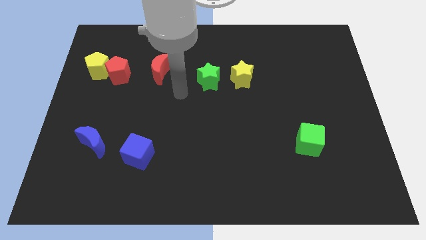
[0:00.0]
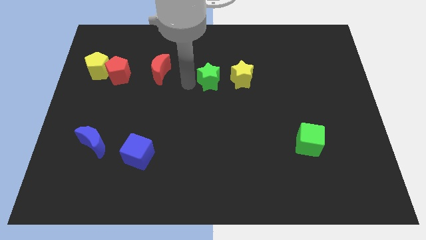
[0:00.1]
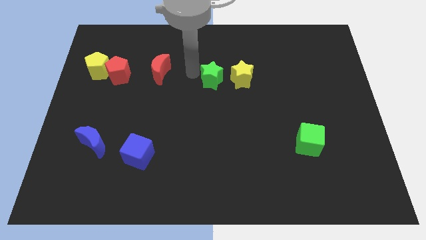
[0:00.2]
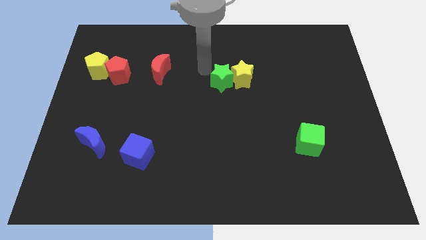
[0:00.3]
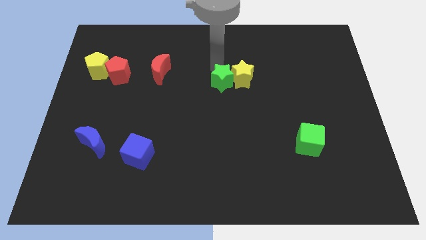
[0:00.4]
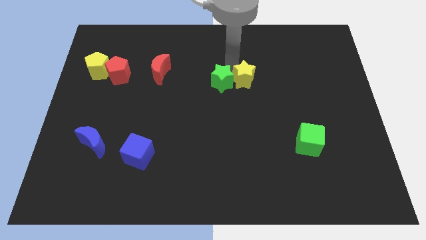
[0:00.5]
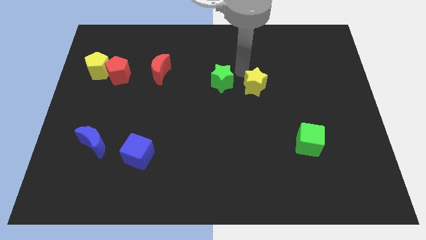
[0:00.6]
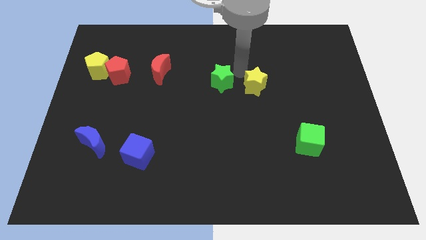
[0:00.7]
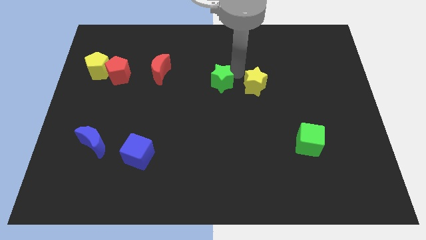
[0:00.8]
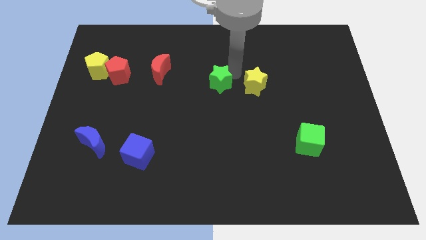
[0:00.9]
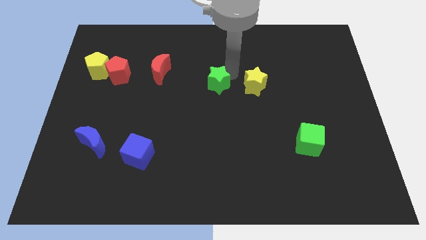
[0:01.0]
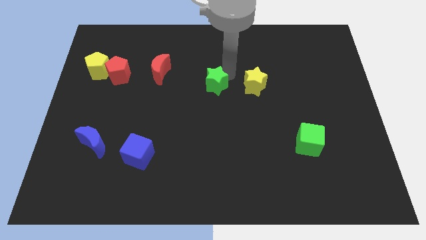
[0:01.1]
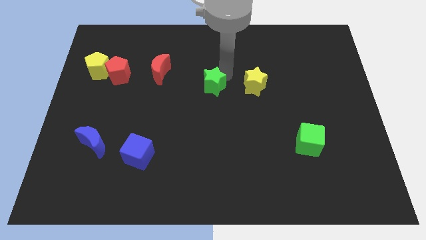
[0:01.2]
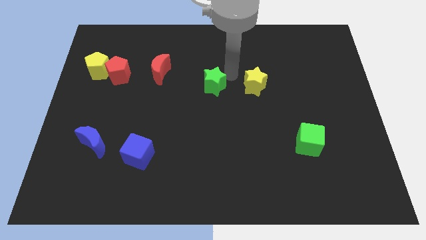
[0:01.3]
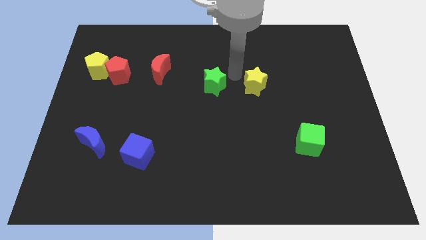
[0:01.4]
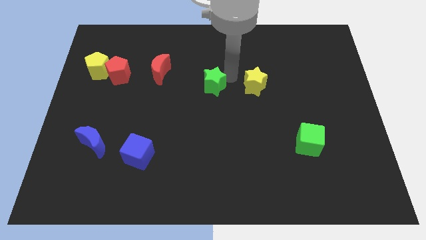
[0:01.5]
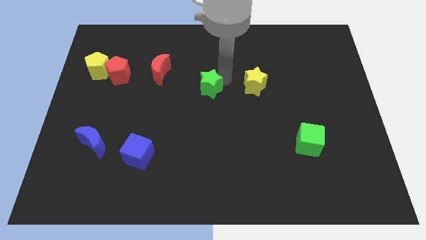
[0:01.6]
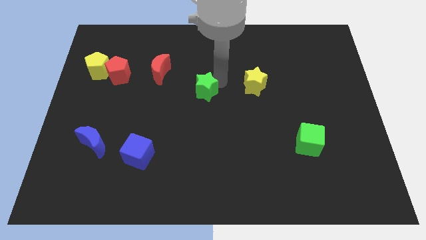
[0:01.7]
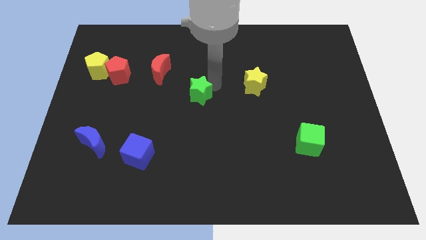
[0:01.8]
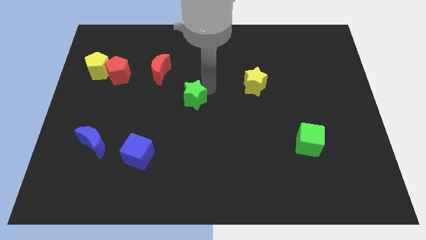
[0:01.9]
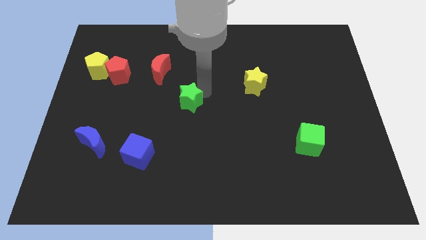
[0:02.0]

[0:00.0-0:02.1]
slightly push the green star downwards and left diagonally

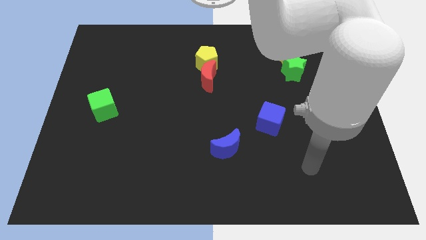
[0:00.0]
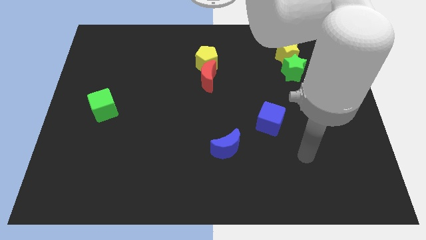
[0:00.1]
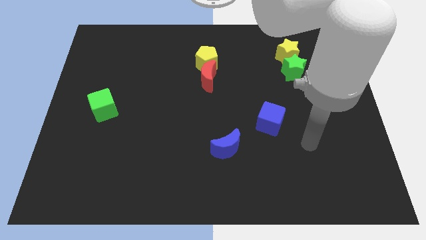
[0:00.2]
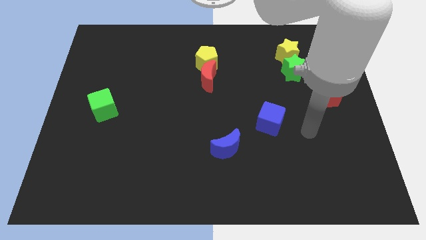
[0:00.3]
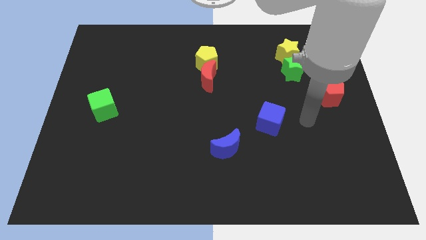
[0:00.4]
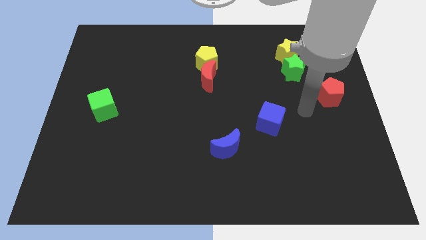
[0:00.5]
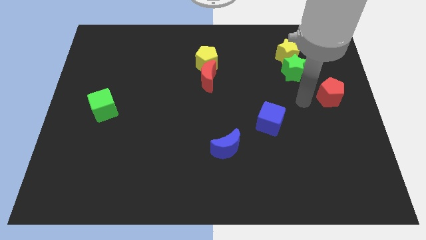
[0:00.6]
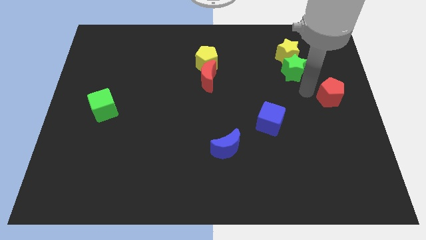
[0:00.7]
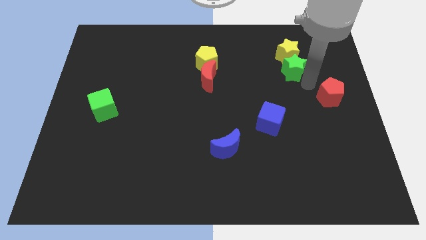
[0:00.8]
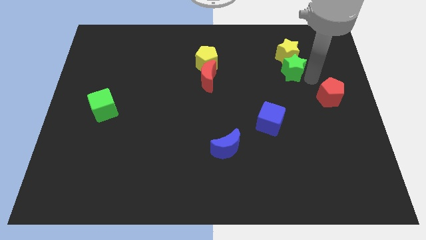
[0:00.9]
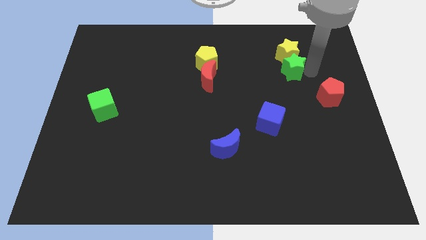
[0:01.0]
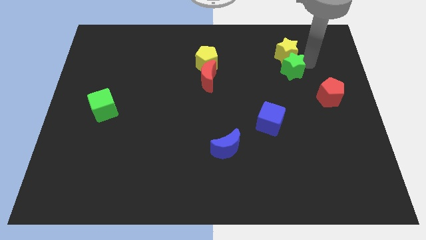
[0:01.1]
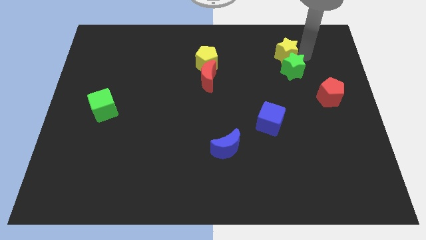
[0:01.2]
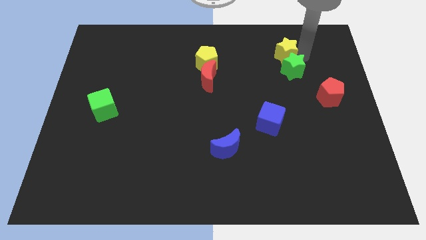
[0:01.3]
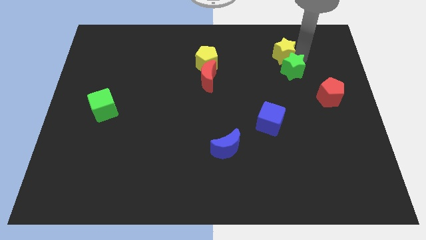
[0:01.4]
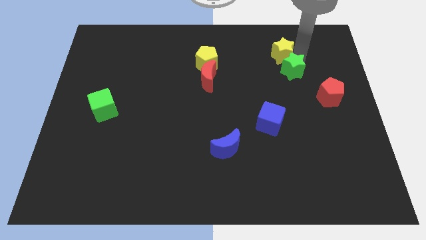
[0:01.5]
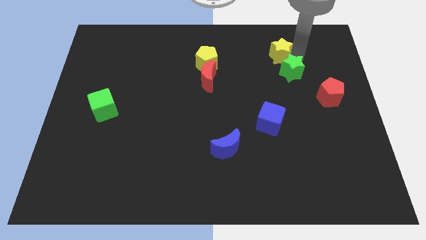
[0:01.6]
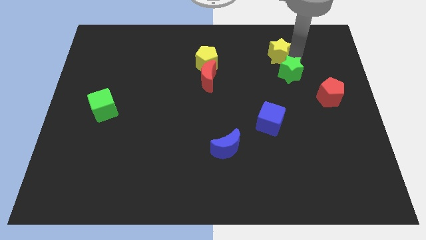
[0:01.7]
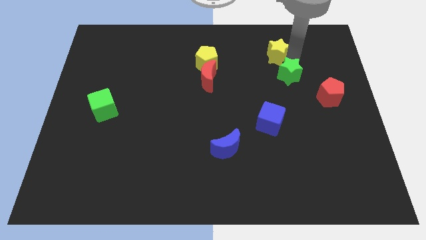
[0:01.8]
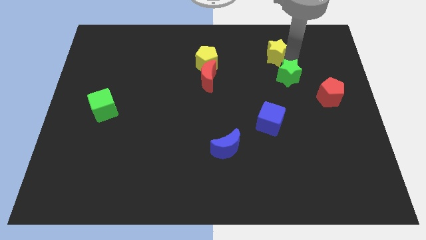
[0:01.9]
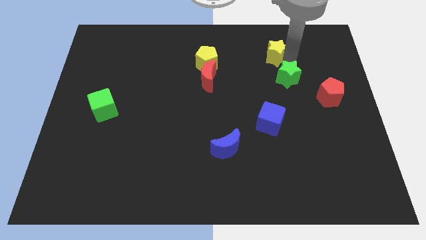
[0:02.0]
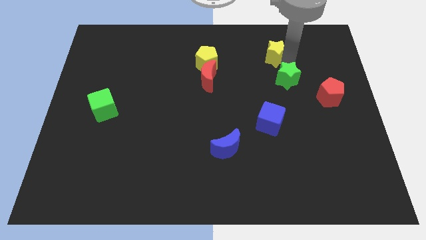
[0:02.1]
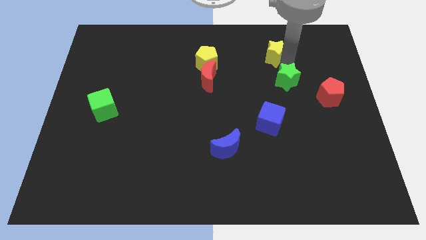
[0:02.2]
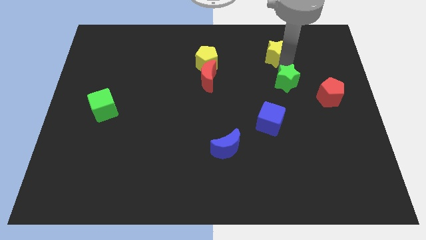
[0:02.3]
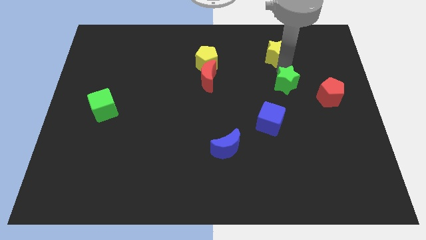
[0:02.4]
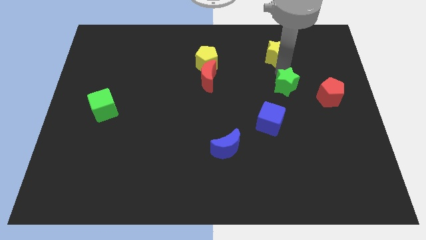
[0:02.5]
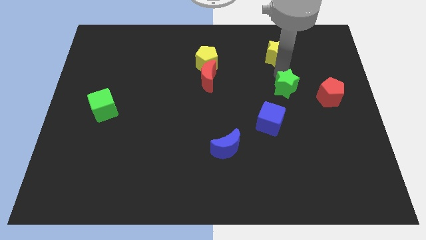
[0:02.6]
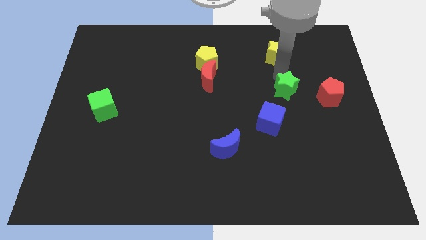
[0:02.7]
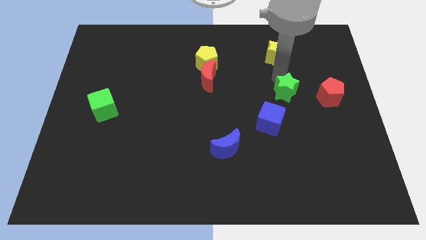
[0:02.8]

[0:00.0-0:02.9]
move the green star a little bit down and left diagonally

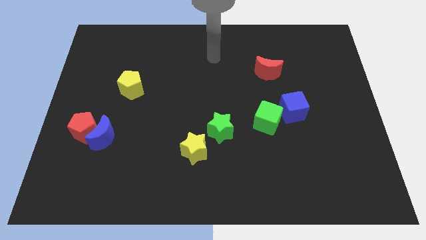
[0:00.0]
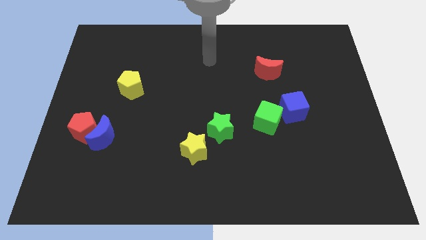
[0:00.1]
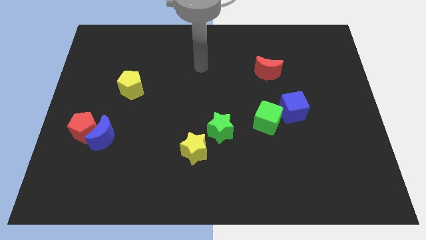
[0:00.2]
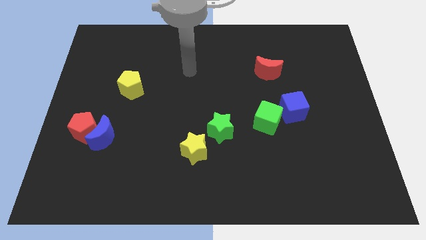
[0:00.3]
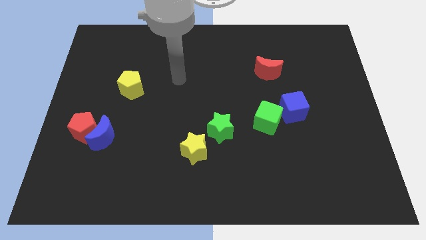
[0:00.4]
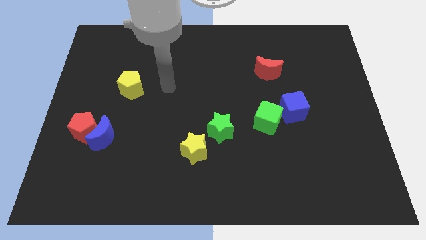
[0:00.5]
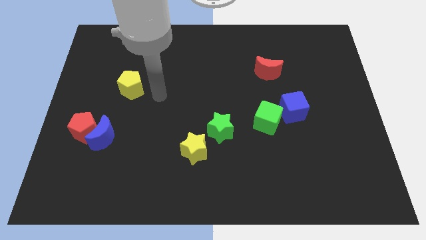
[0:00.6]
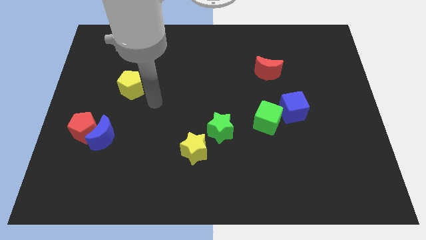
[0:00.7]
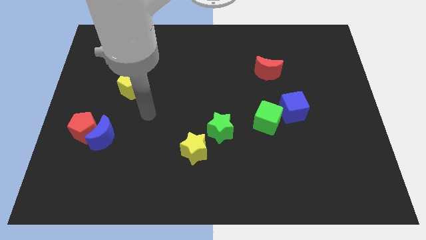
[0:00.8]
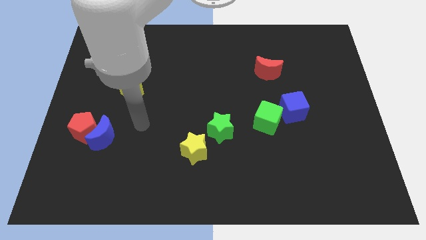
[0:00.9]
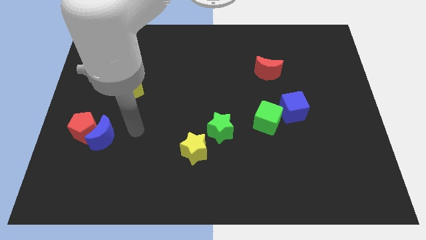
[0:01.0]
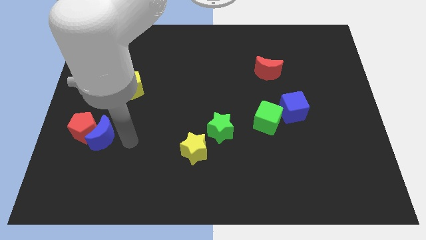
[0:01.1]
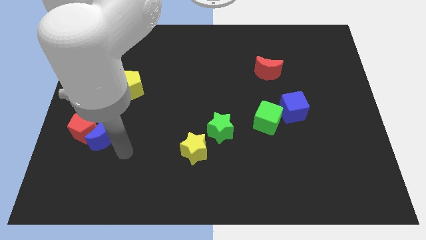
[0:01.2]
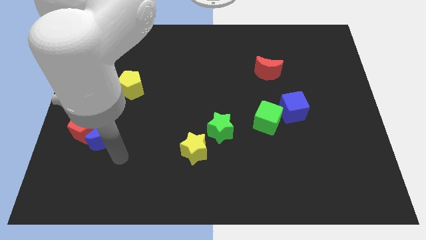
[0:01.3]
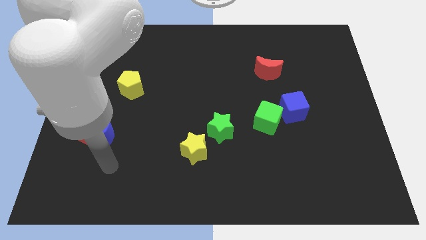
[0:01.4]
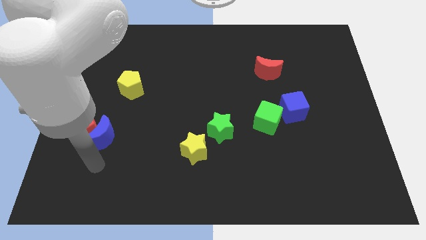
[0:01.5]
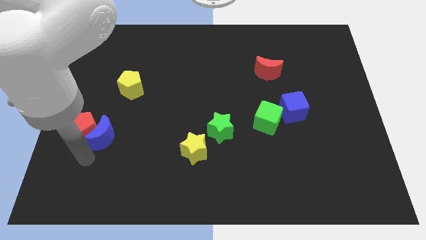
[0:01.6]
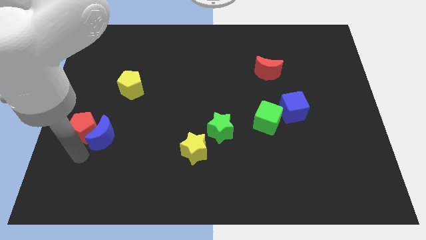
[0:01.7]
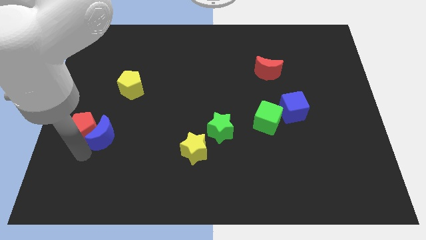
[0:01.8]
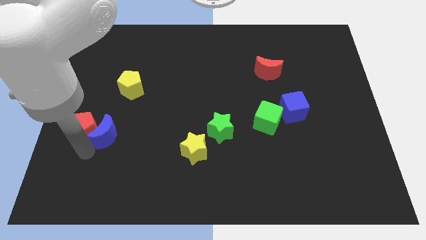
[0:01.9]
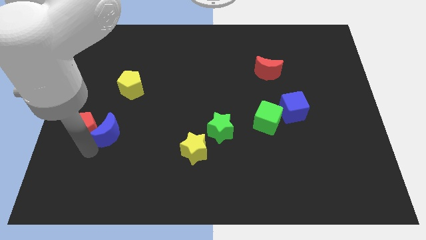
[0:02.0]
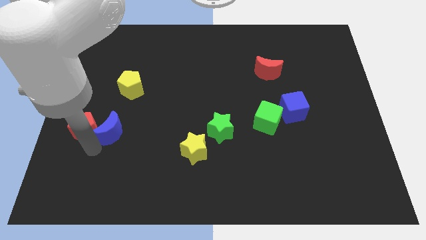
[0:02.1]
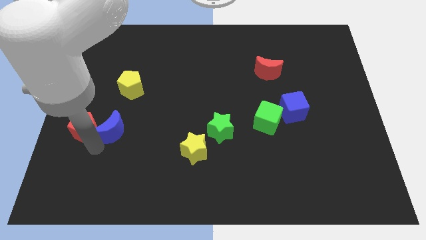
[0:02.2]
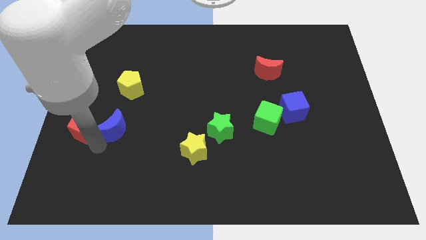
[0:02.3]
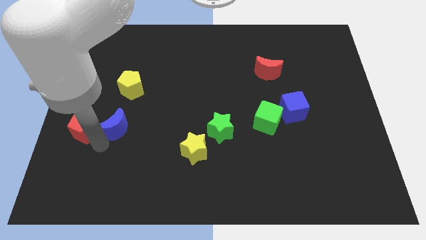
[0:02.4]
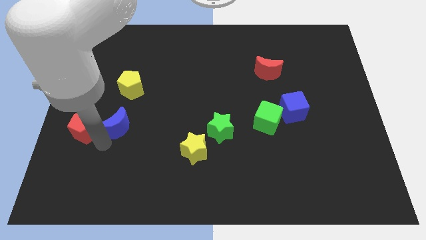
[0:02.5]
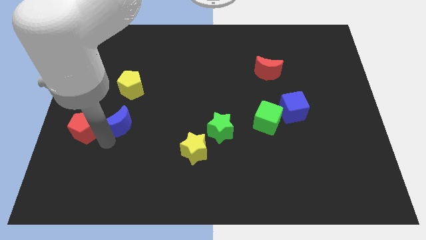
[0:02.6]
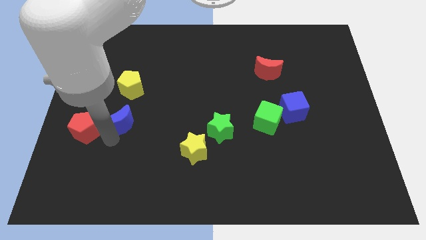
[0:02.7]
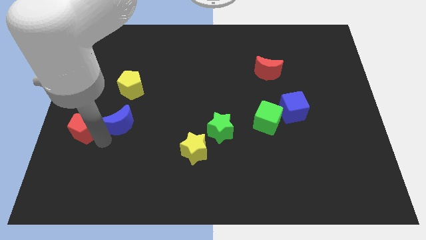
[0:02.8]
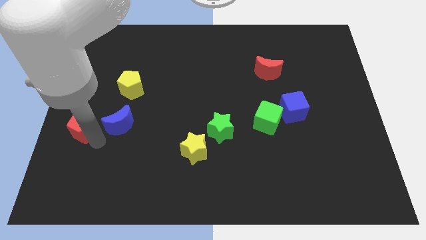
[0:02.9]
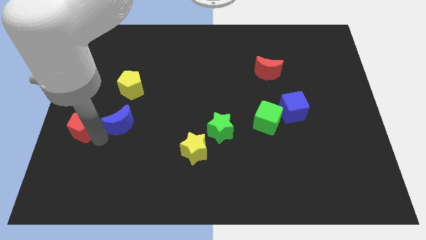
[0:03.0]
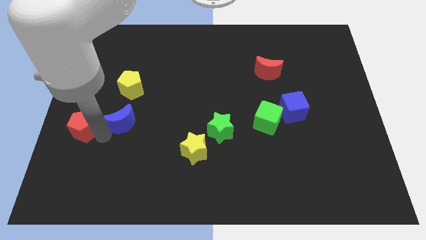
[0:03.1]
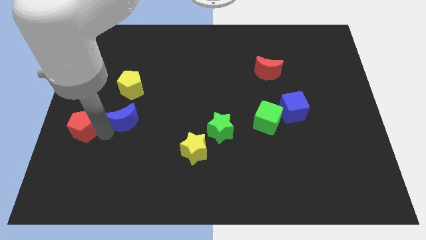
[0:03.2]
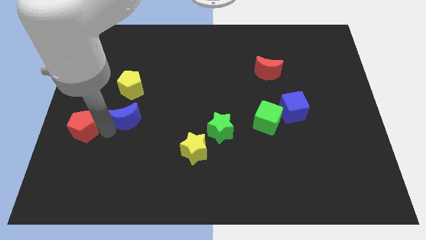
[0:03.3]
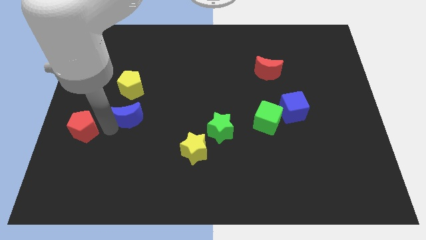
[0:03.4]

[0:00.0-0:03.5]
slightly push the blue moon up and to the right diagonally

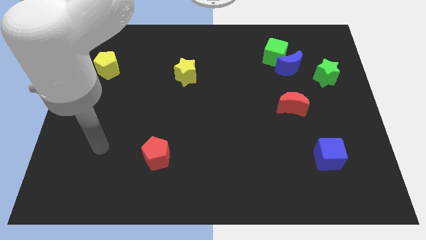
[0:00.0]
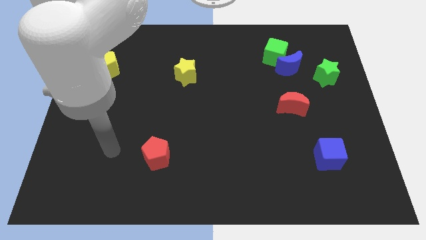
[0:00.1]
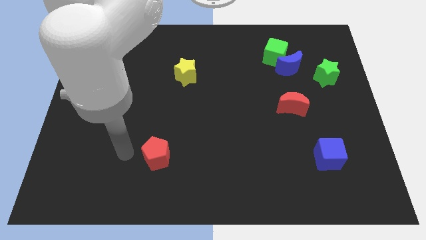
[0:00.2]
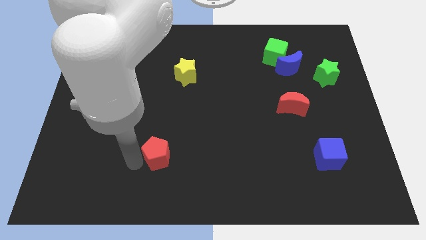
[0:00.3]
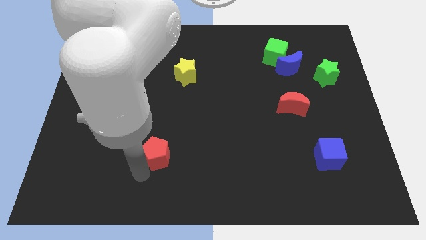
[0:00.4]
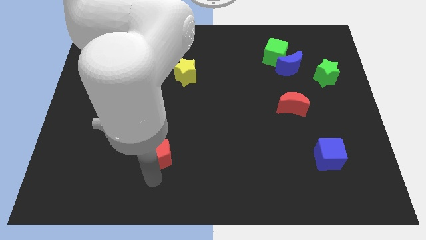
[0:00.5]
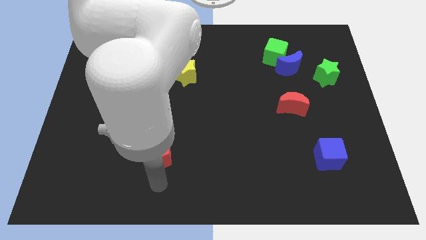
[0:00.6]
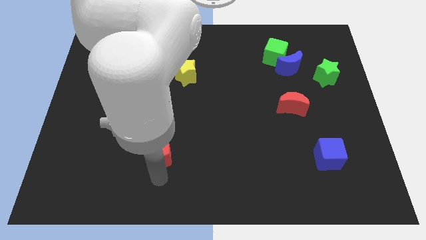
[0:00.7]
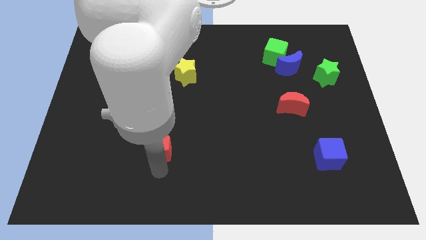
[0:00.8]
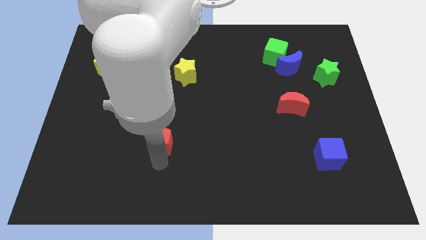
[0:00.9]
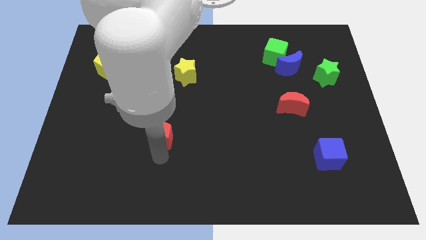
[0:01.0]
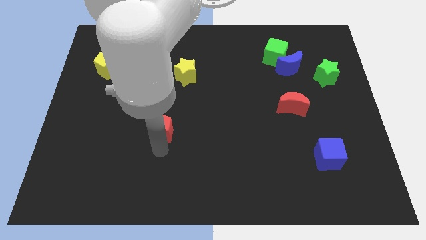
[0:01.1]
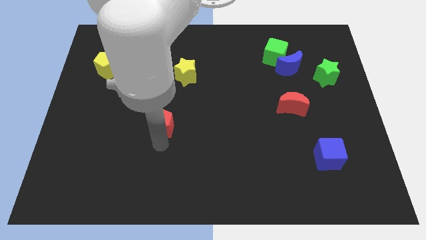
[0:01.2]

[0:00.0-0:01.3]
slightly move the red pentagon upwards
